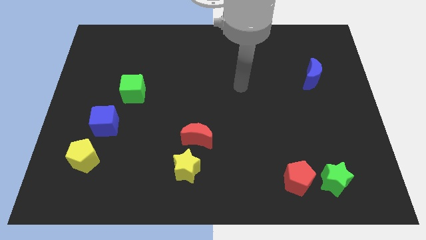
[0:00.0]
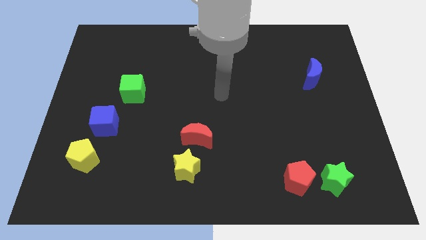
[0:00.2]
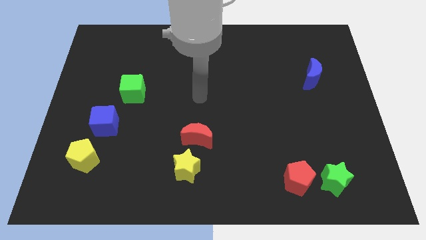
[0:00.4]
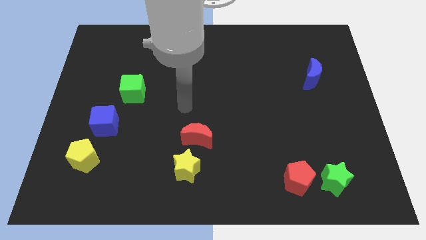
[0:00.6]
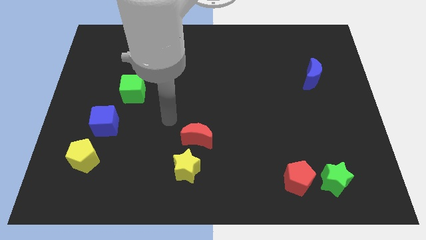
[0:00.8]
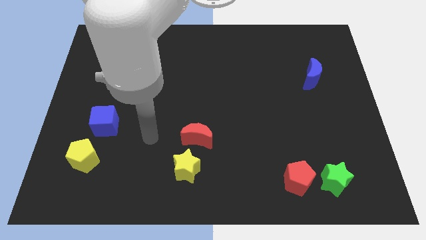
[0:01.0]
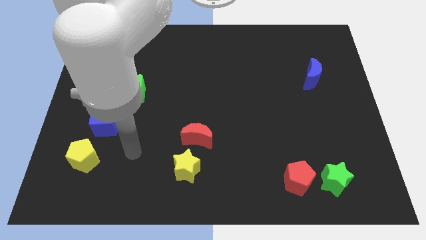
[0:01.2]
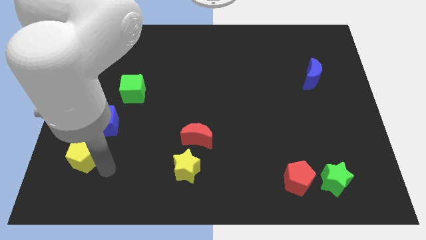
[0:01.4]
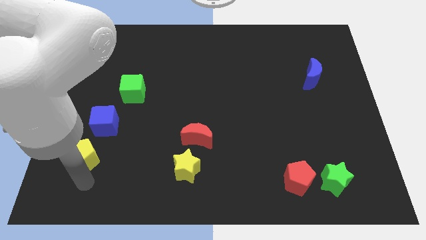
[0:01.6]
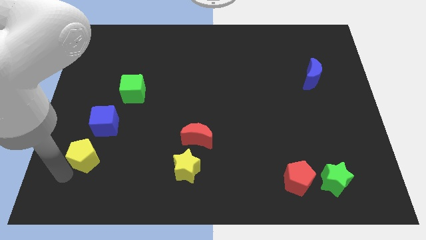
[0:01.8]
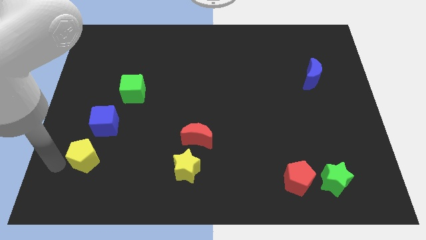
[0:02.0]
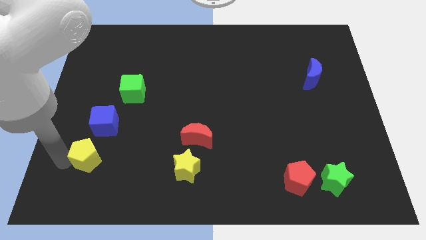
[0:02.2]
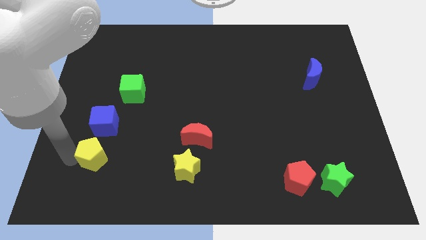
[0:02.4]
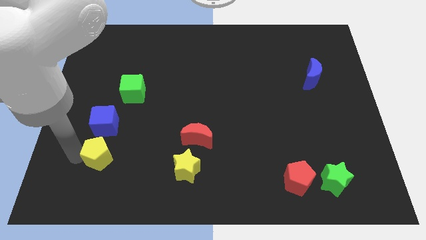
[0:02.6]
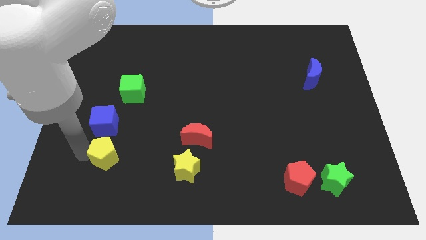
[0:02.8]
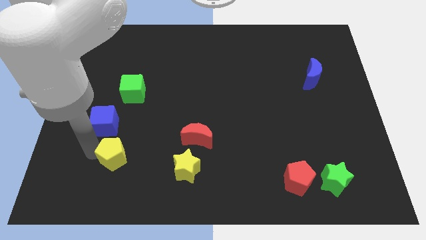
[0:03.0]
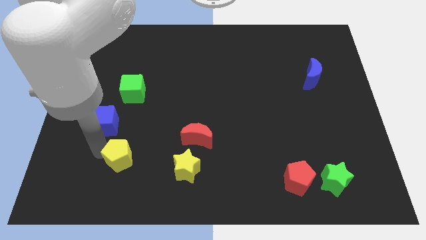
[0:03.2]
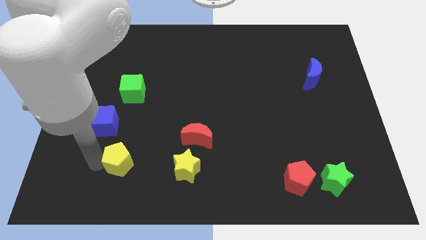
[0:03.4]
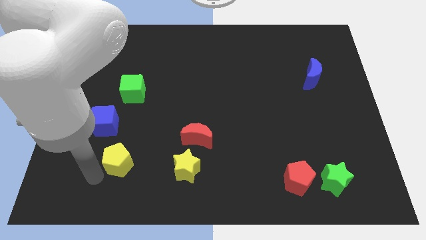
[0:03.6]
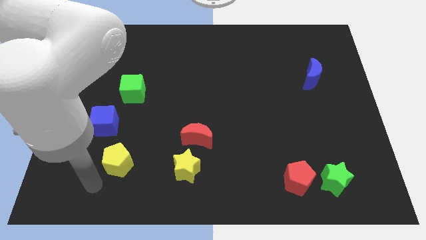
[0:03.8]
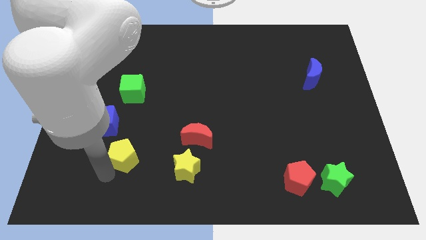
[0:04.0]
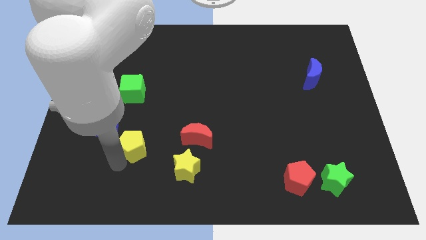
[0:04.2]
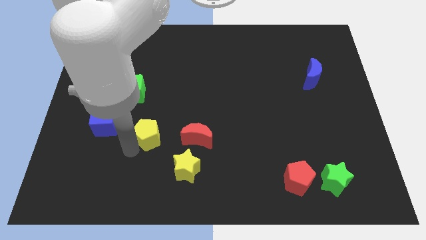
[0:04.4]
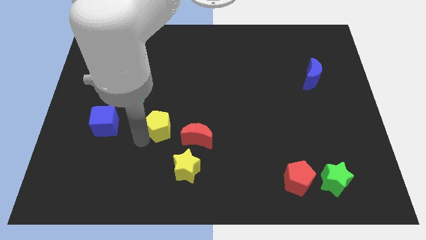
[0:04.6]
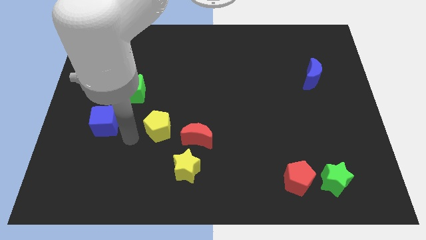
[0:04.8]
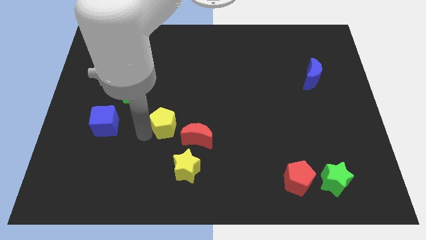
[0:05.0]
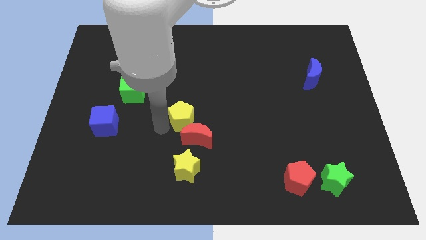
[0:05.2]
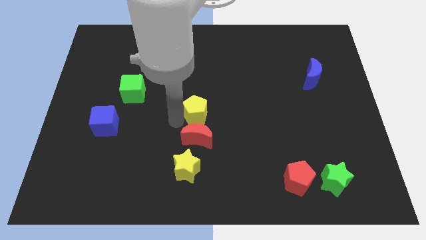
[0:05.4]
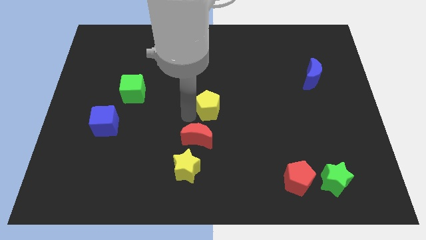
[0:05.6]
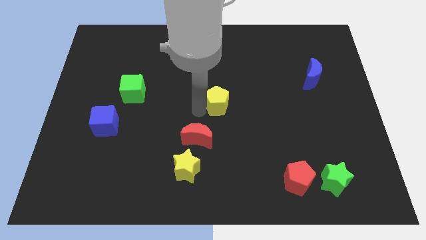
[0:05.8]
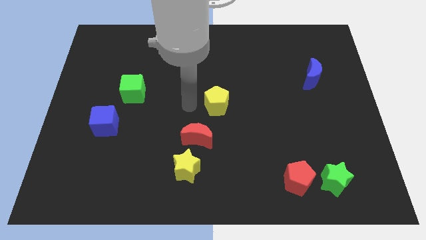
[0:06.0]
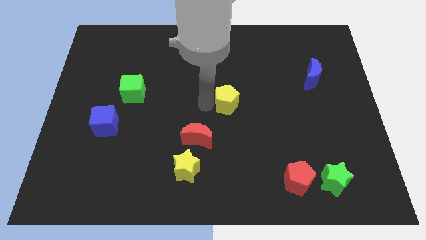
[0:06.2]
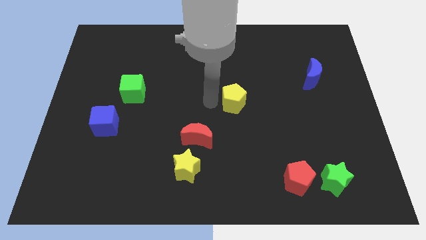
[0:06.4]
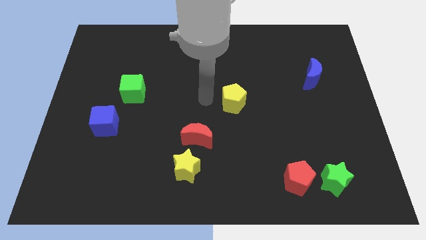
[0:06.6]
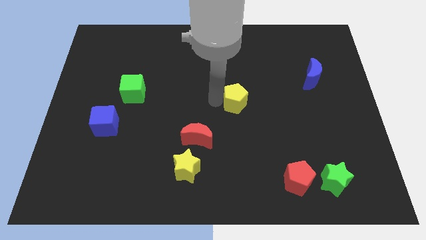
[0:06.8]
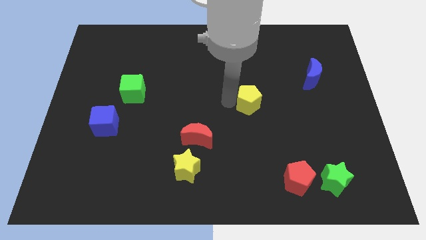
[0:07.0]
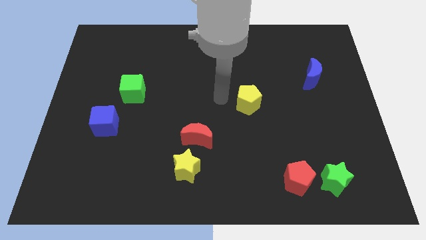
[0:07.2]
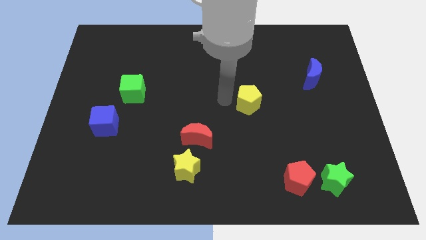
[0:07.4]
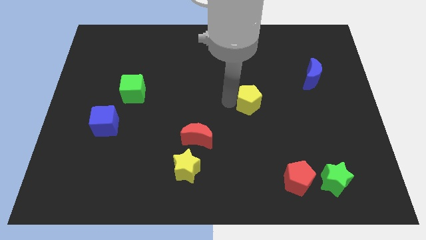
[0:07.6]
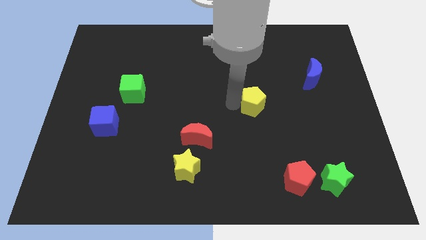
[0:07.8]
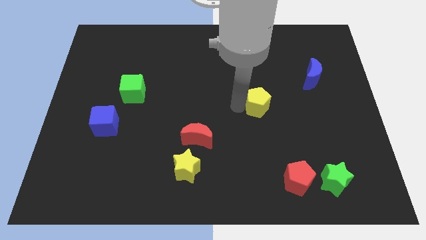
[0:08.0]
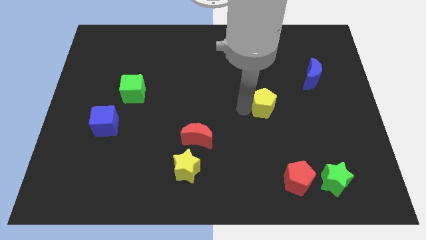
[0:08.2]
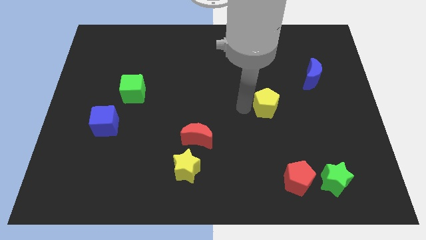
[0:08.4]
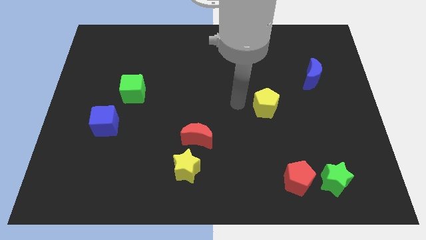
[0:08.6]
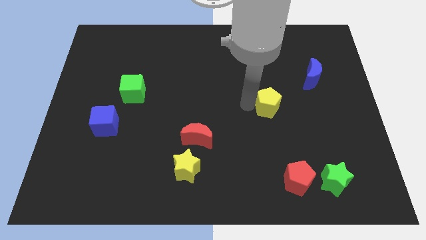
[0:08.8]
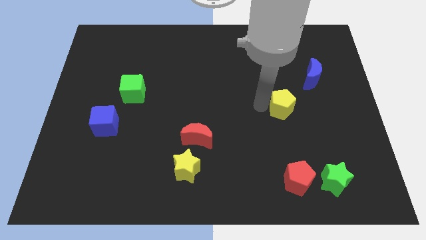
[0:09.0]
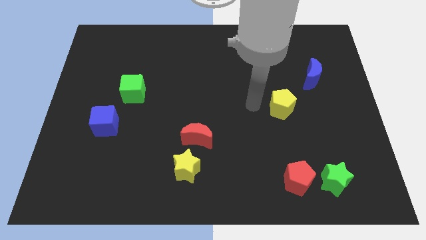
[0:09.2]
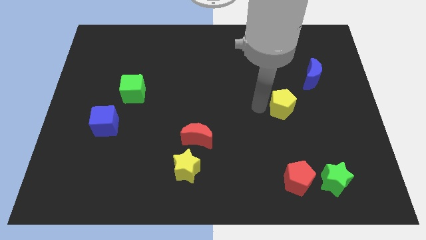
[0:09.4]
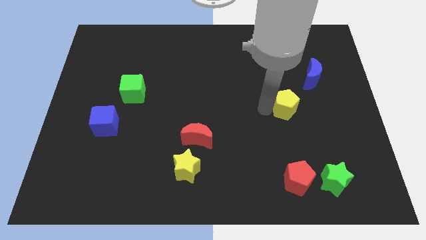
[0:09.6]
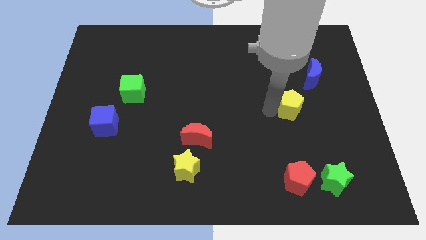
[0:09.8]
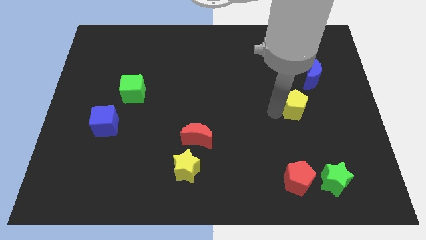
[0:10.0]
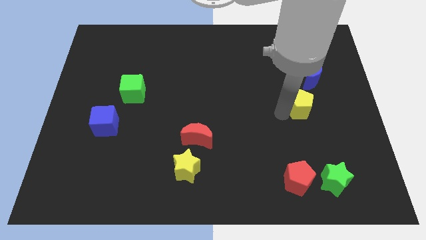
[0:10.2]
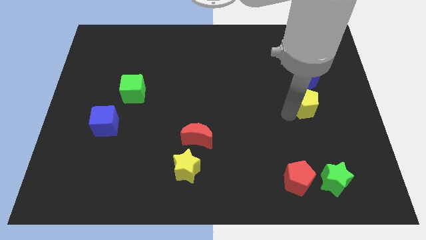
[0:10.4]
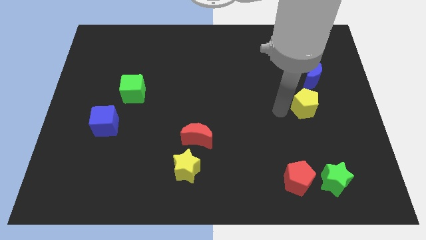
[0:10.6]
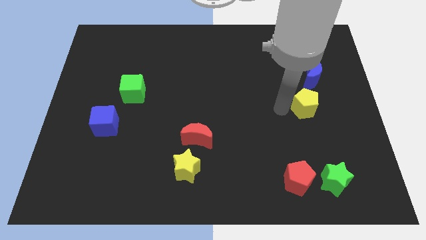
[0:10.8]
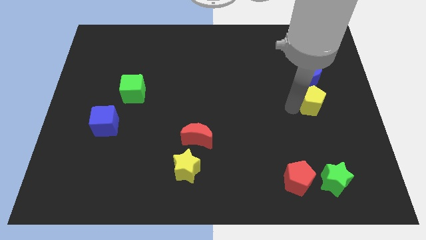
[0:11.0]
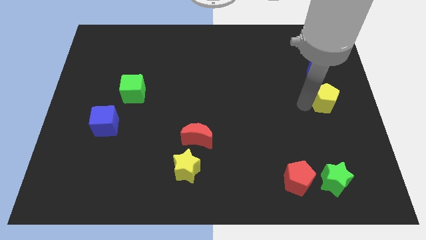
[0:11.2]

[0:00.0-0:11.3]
push the yellow pentagon to the right side
